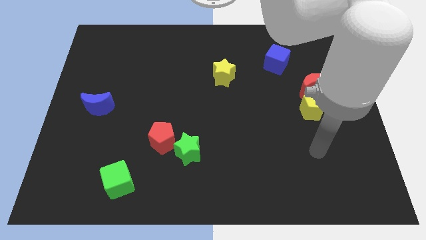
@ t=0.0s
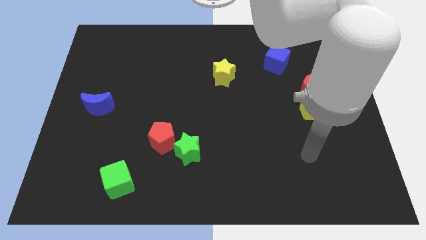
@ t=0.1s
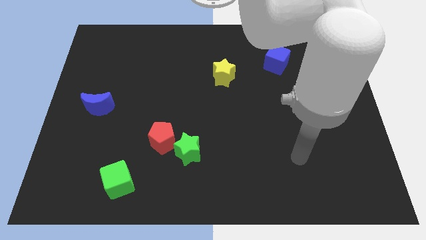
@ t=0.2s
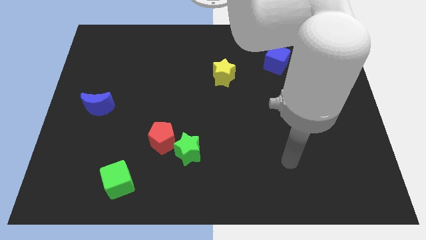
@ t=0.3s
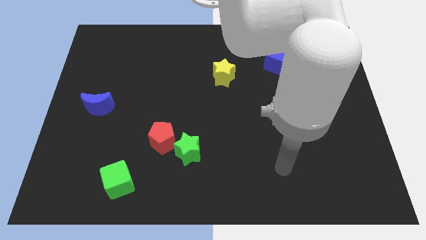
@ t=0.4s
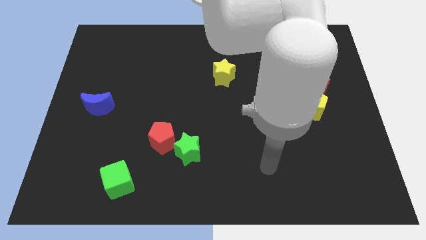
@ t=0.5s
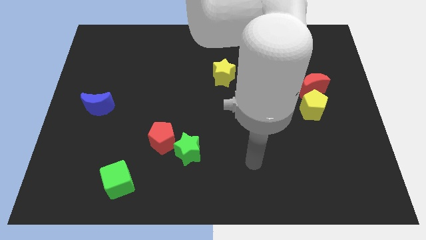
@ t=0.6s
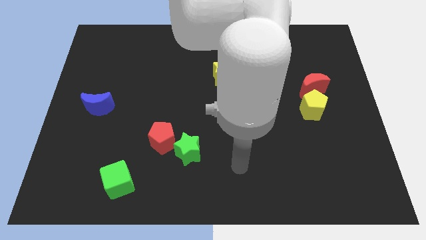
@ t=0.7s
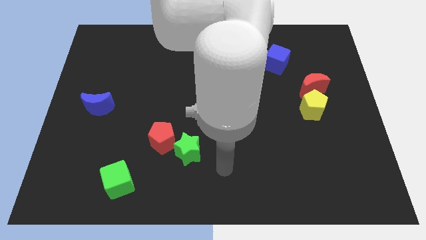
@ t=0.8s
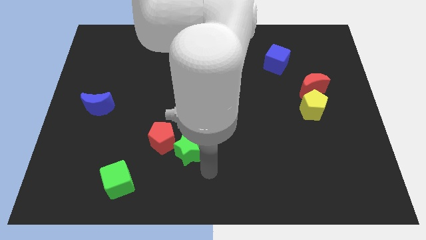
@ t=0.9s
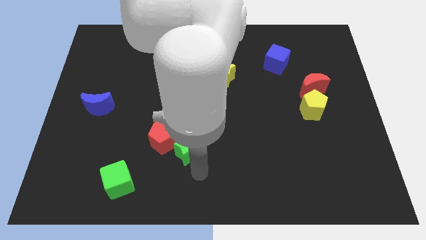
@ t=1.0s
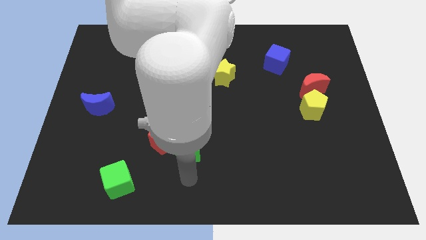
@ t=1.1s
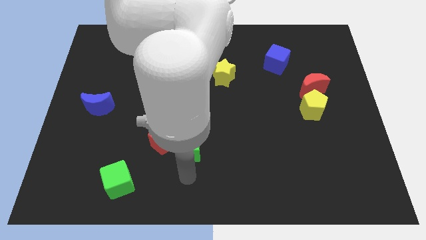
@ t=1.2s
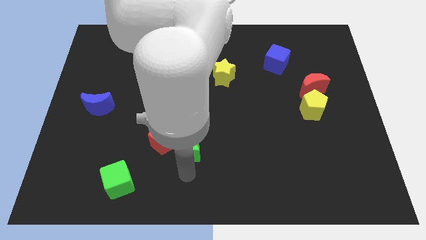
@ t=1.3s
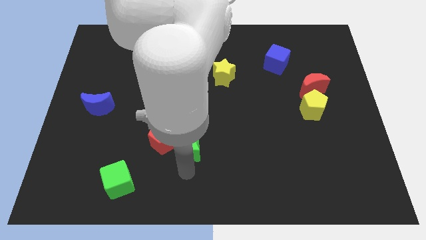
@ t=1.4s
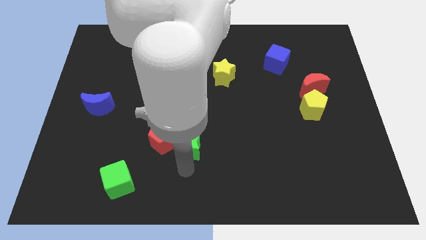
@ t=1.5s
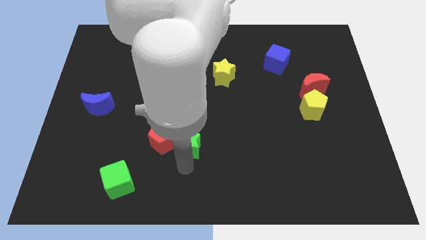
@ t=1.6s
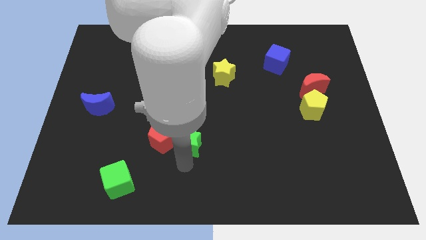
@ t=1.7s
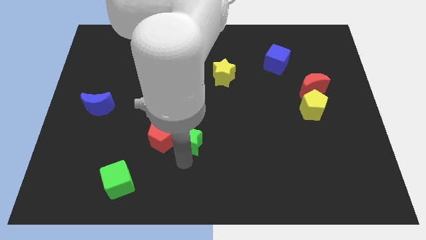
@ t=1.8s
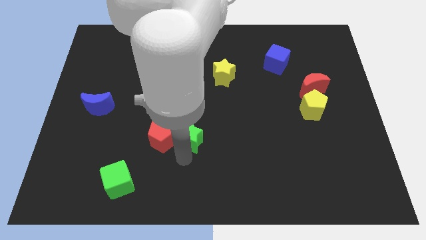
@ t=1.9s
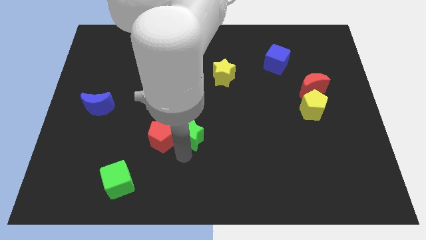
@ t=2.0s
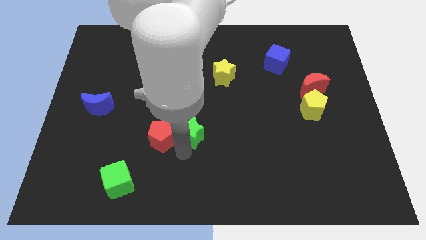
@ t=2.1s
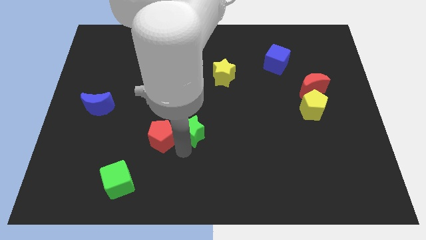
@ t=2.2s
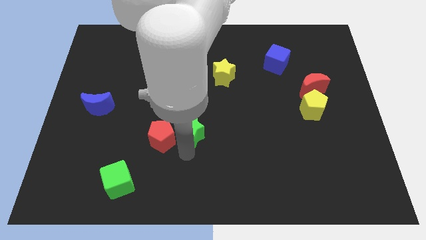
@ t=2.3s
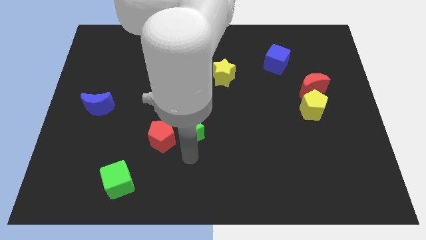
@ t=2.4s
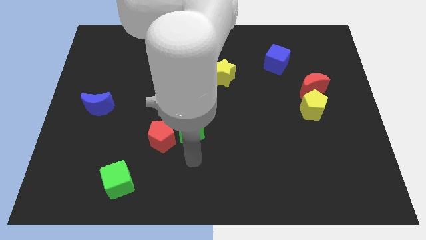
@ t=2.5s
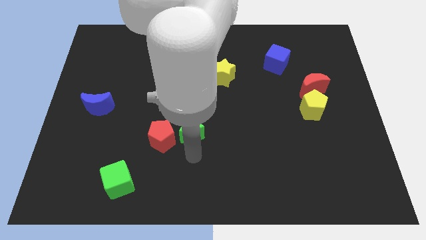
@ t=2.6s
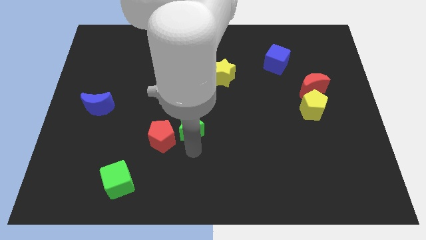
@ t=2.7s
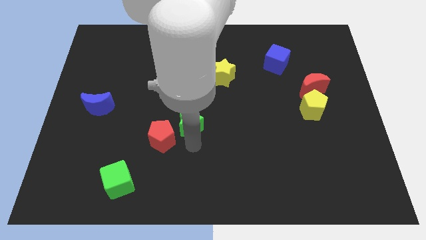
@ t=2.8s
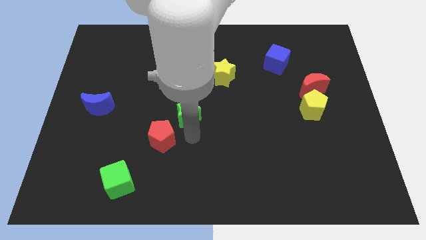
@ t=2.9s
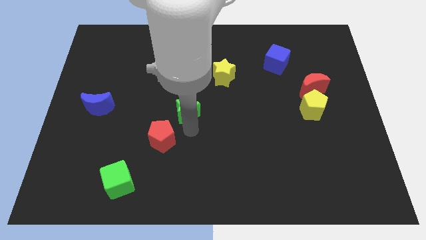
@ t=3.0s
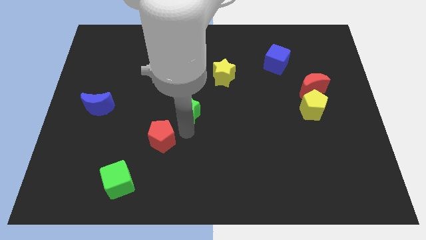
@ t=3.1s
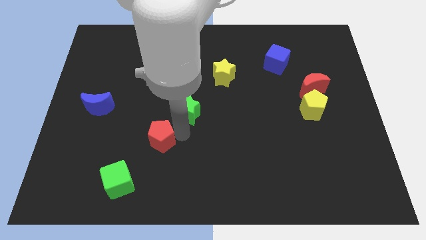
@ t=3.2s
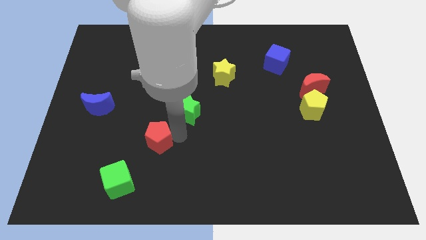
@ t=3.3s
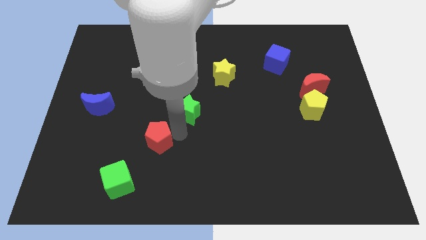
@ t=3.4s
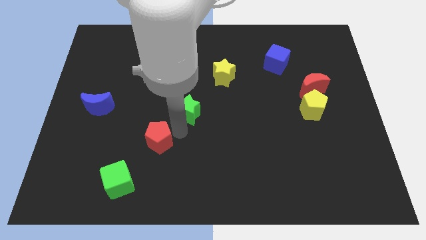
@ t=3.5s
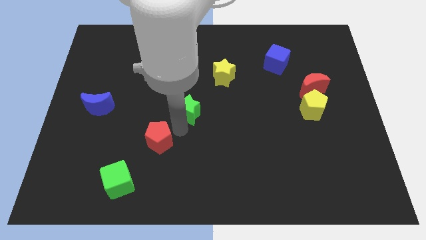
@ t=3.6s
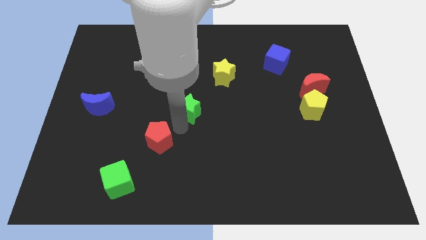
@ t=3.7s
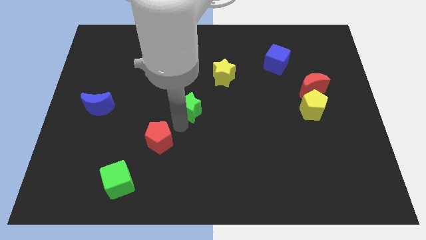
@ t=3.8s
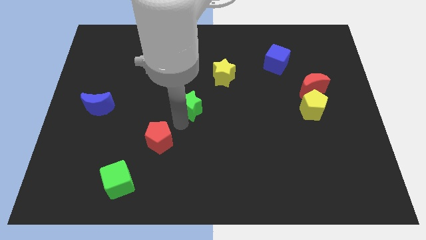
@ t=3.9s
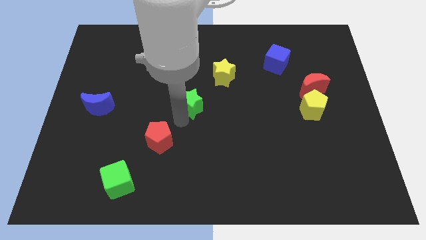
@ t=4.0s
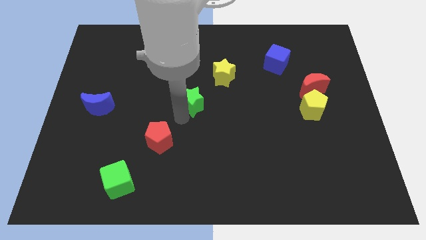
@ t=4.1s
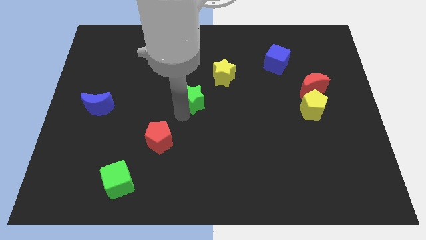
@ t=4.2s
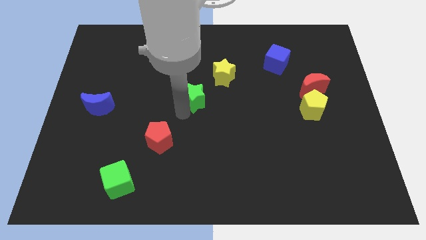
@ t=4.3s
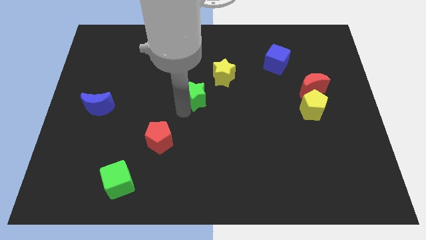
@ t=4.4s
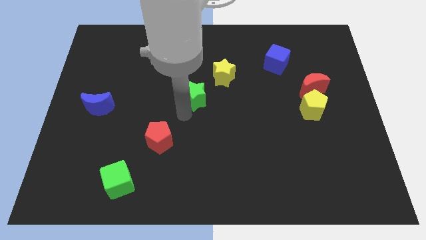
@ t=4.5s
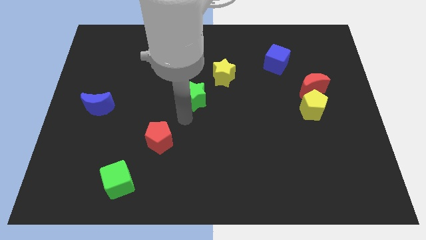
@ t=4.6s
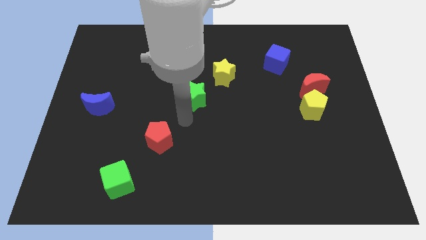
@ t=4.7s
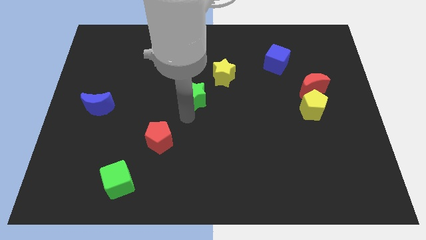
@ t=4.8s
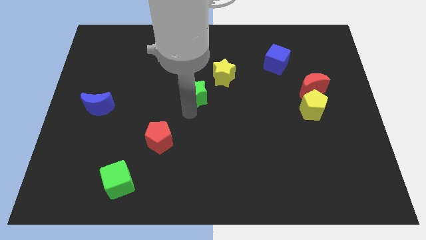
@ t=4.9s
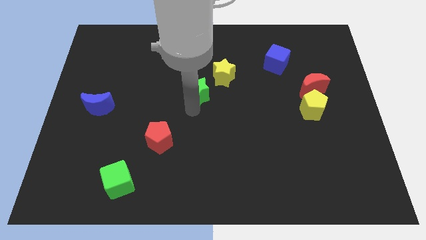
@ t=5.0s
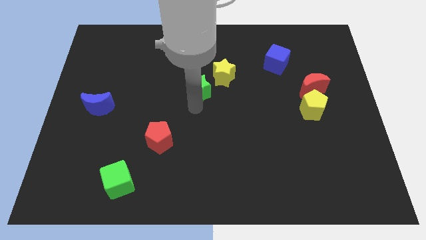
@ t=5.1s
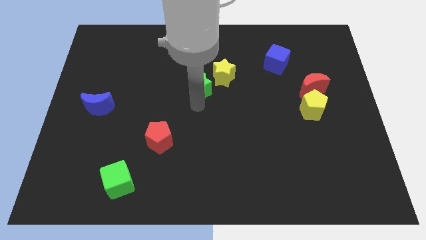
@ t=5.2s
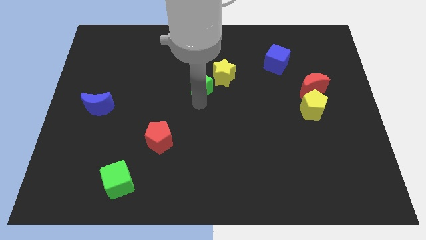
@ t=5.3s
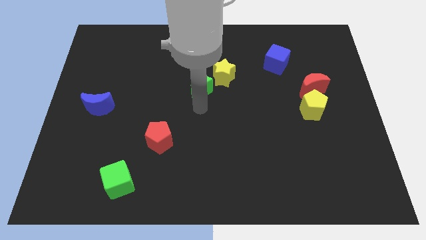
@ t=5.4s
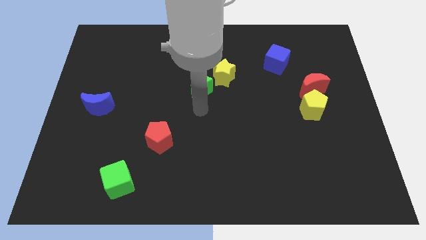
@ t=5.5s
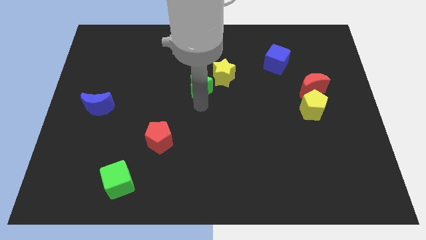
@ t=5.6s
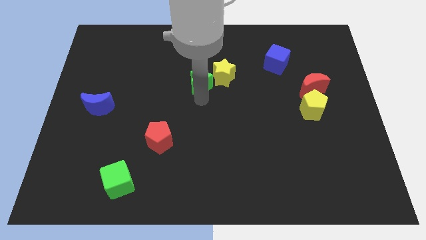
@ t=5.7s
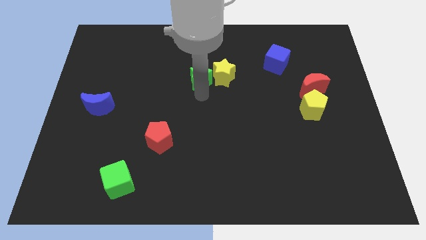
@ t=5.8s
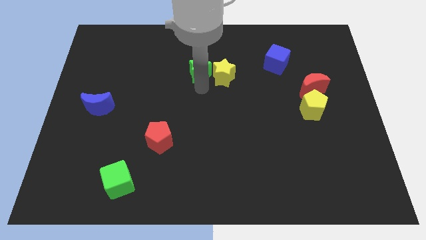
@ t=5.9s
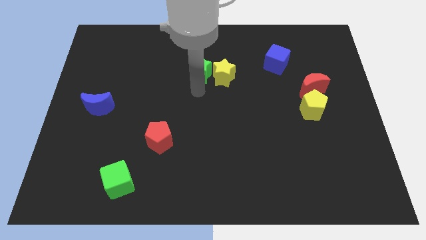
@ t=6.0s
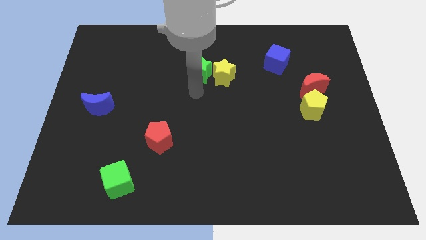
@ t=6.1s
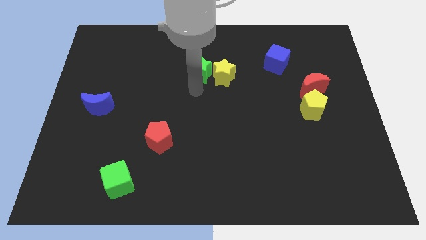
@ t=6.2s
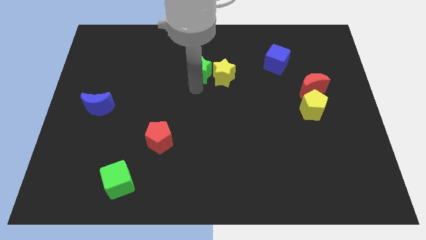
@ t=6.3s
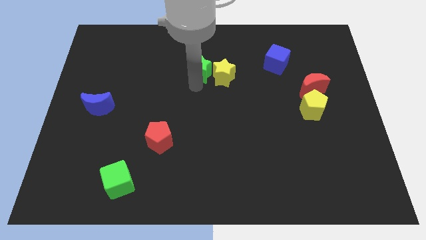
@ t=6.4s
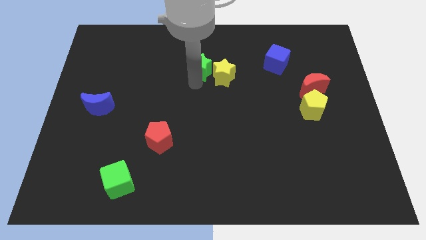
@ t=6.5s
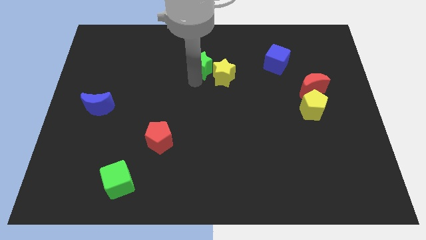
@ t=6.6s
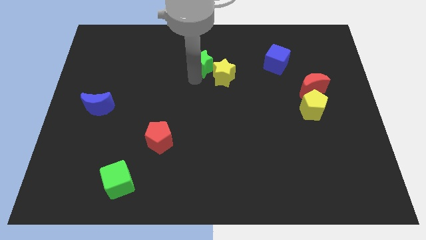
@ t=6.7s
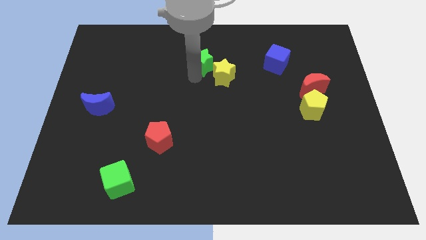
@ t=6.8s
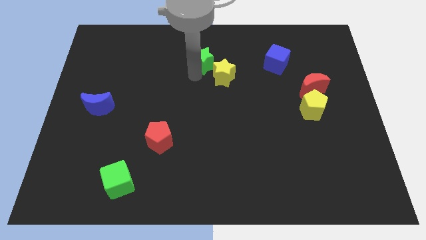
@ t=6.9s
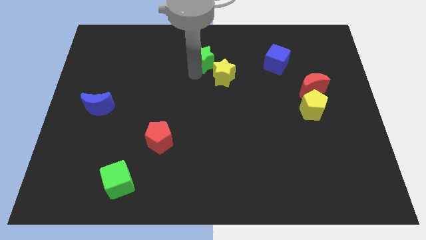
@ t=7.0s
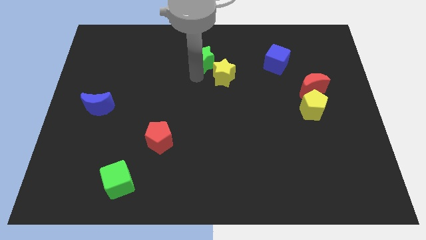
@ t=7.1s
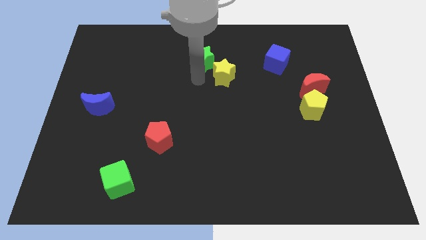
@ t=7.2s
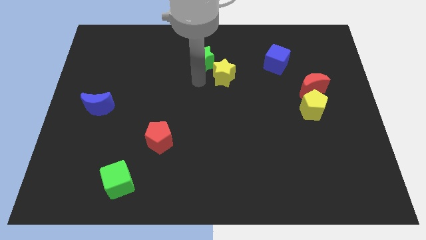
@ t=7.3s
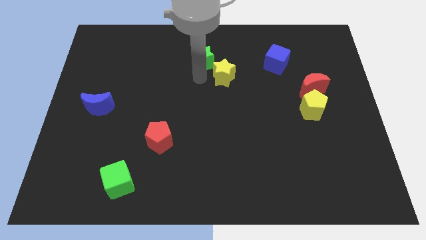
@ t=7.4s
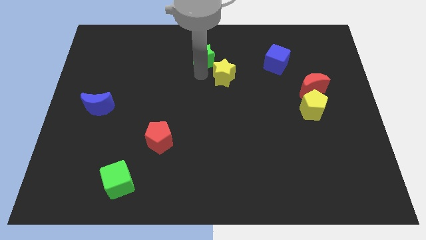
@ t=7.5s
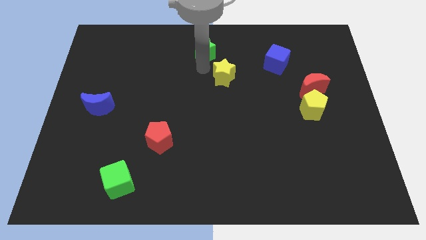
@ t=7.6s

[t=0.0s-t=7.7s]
put the green star to the towards your base

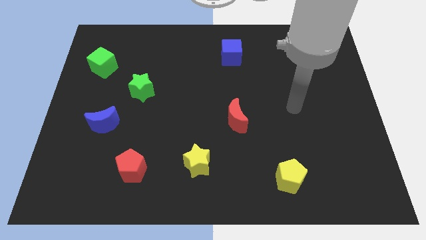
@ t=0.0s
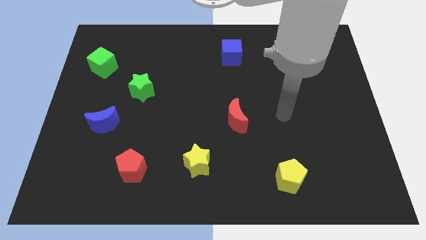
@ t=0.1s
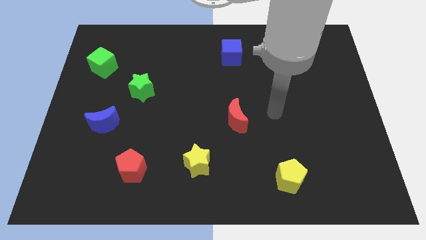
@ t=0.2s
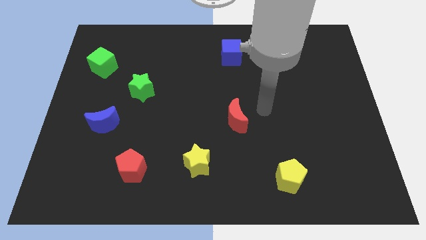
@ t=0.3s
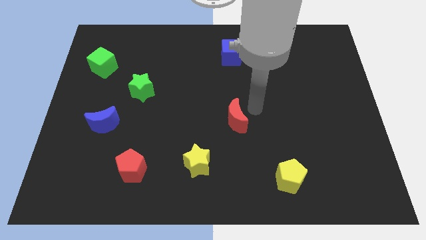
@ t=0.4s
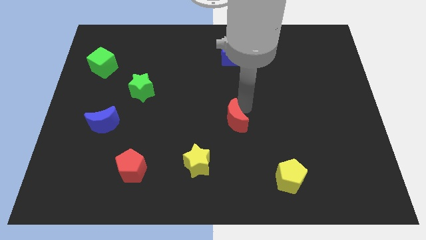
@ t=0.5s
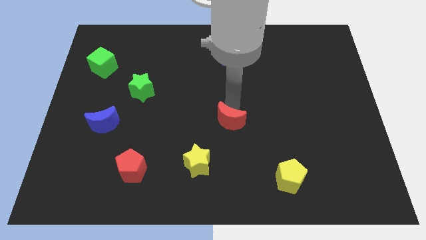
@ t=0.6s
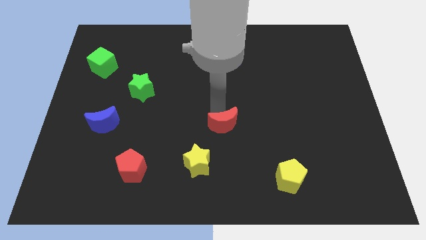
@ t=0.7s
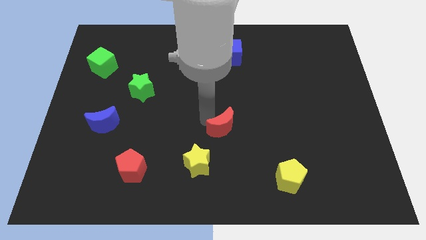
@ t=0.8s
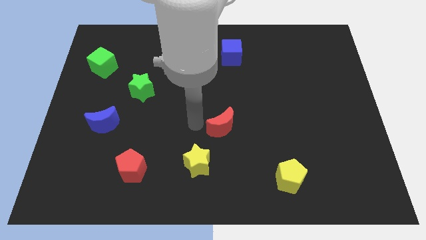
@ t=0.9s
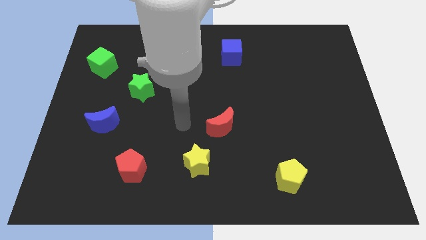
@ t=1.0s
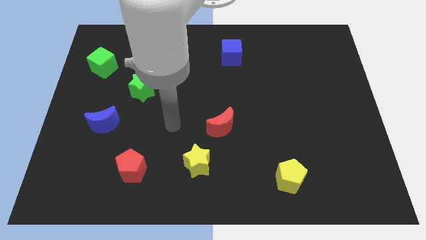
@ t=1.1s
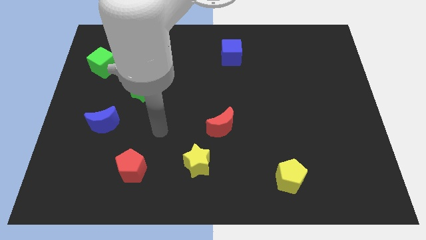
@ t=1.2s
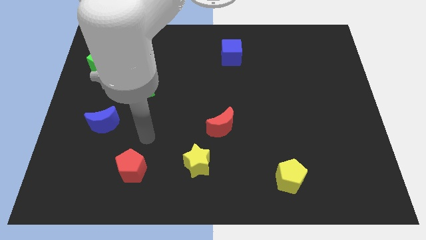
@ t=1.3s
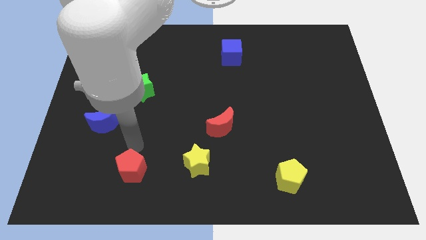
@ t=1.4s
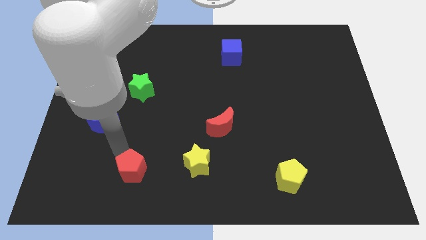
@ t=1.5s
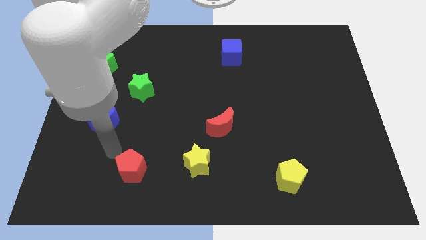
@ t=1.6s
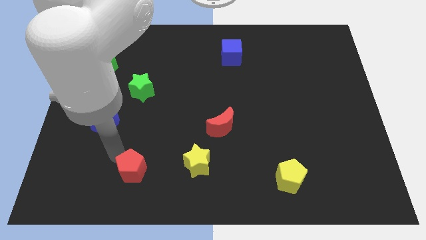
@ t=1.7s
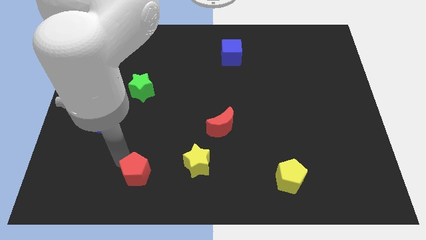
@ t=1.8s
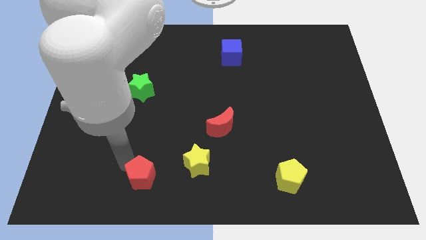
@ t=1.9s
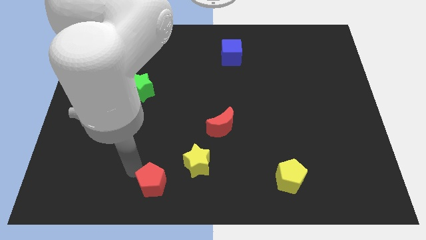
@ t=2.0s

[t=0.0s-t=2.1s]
put the red pentagon to the bottom
